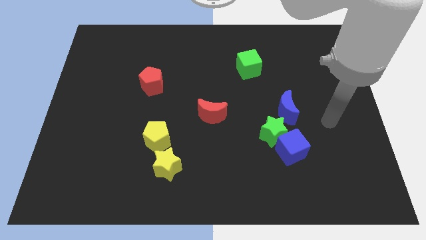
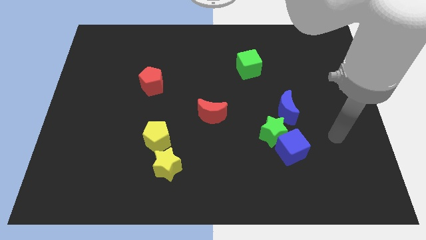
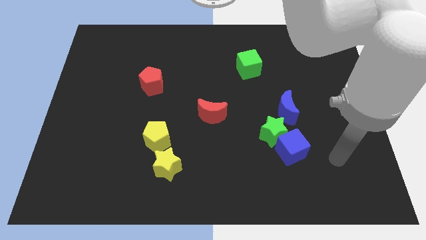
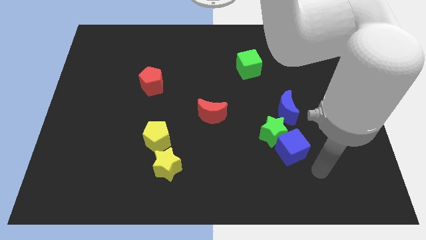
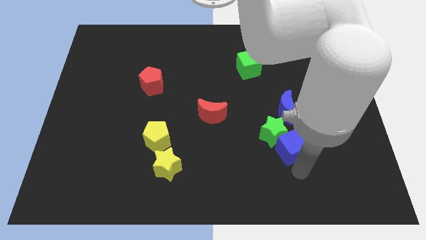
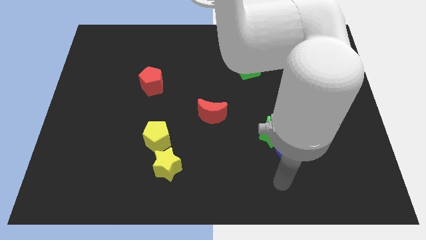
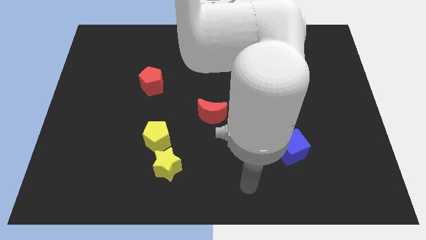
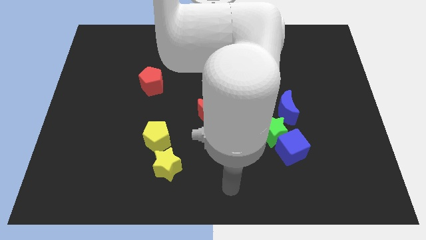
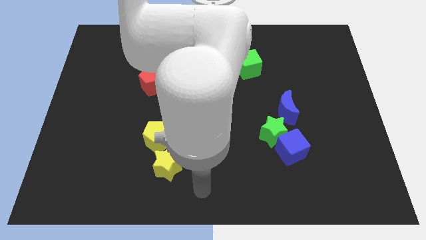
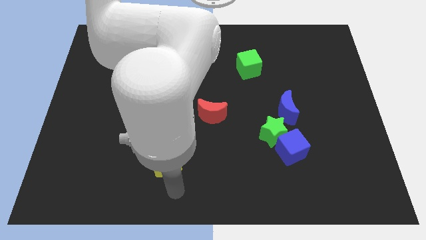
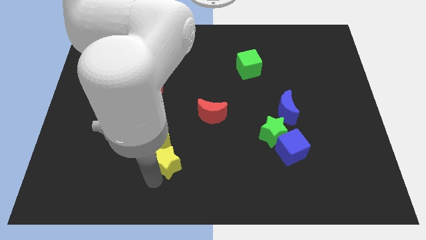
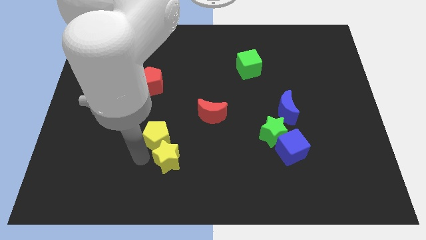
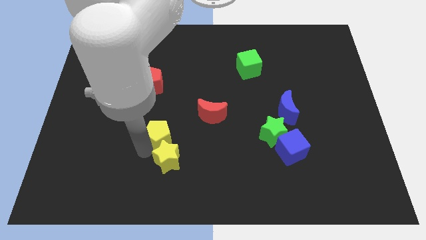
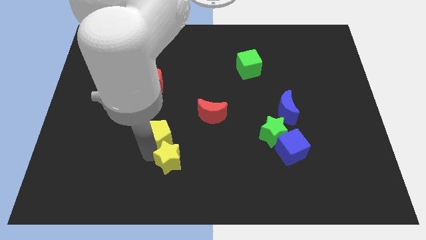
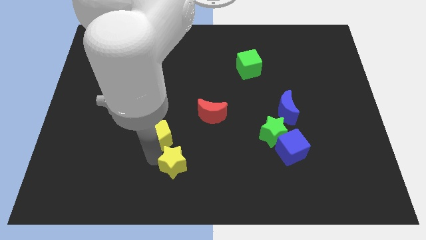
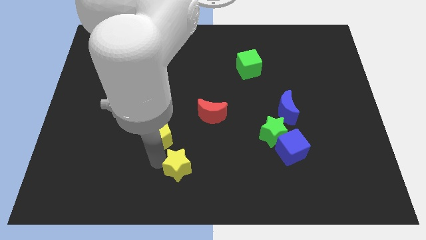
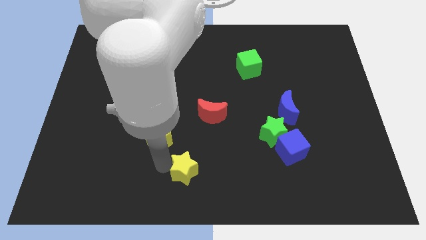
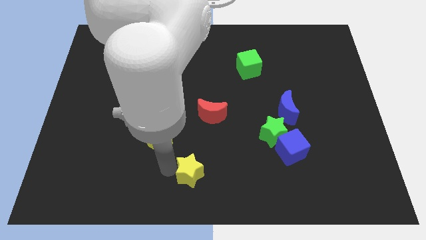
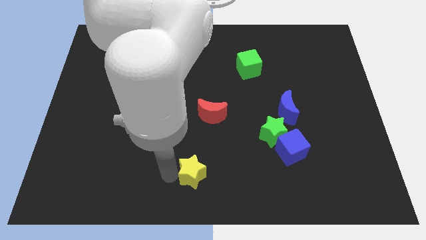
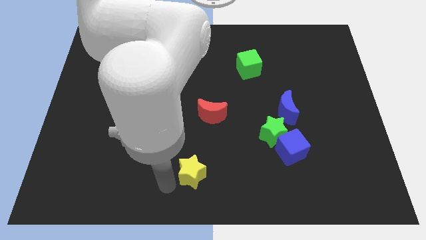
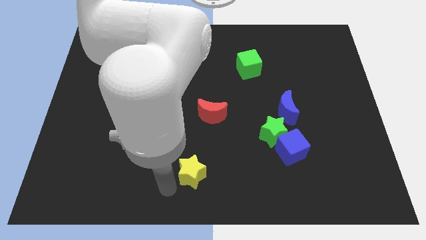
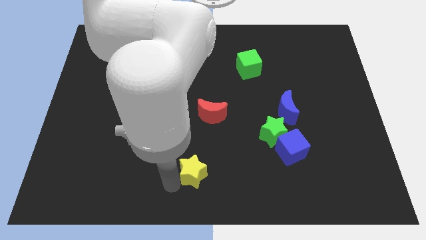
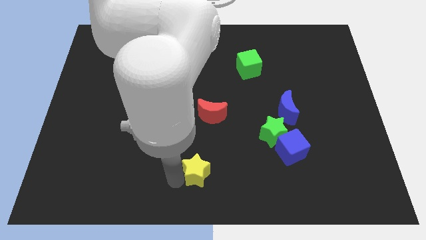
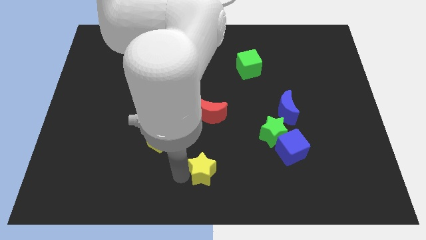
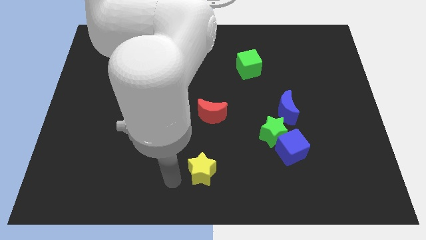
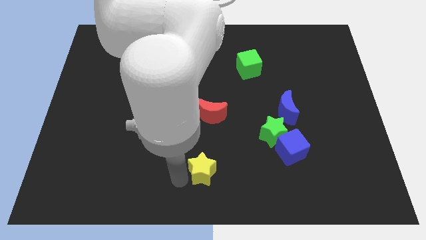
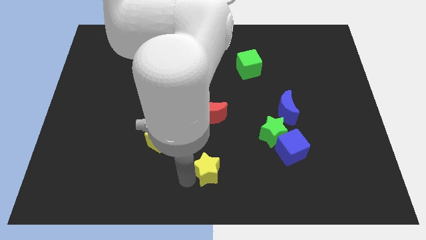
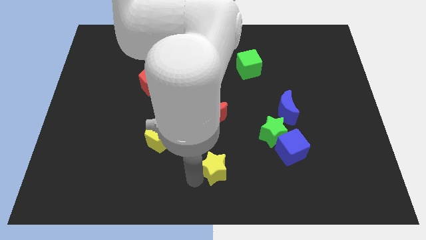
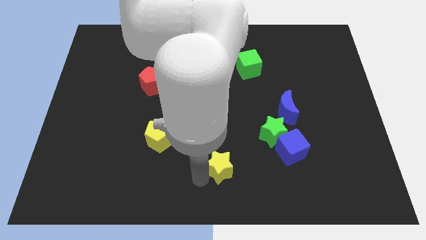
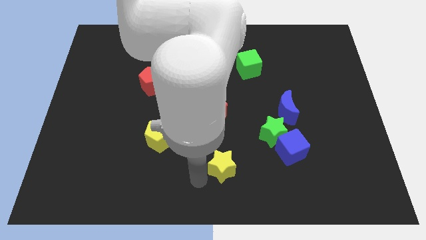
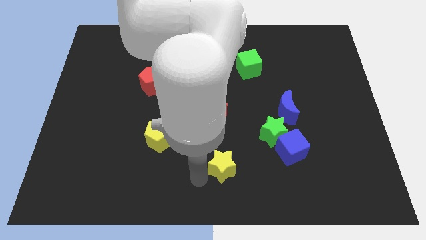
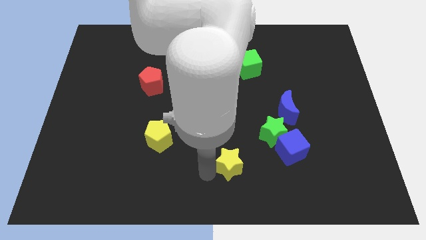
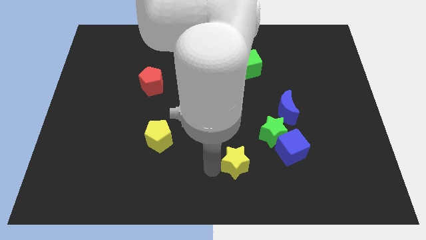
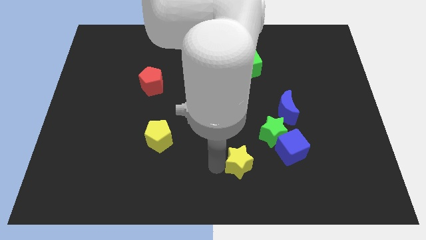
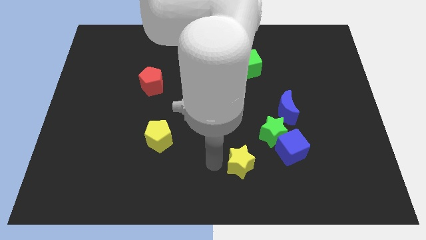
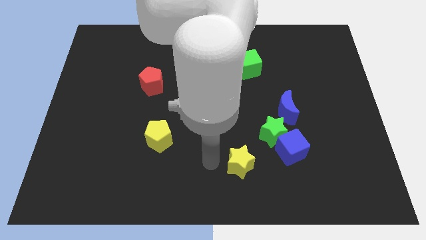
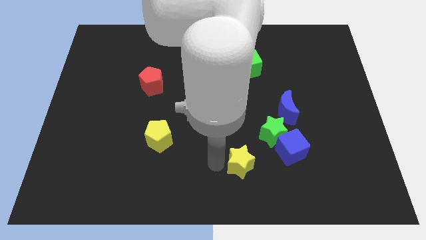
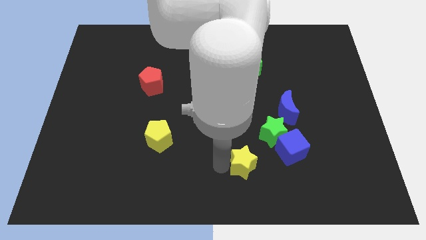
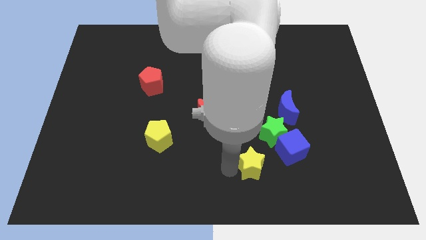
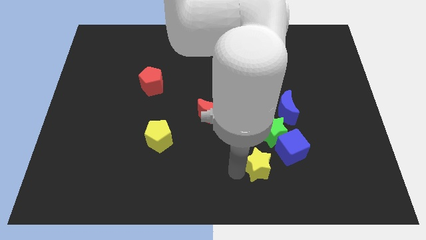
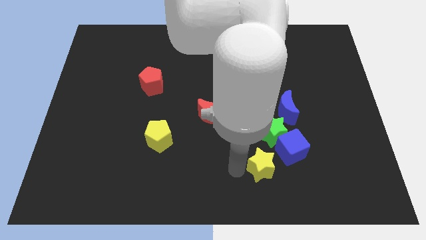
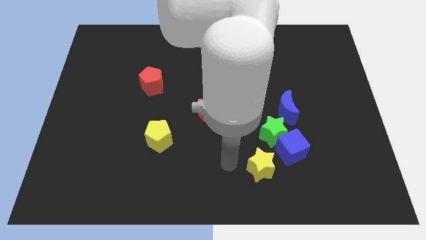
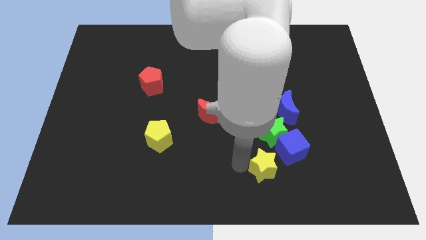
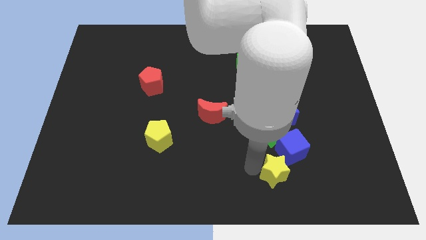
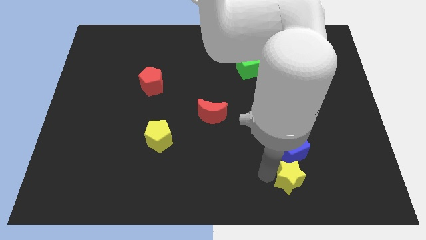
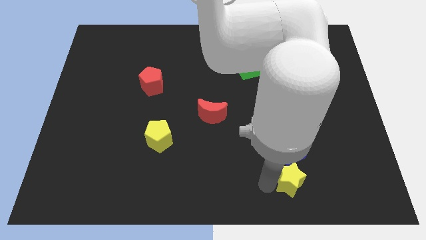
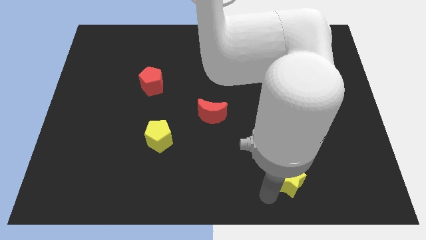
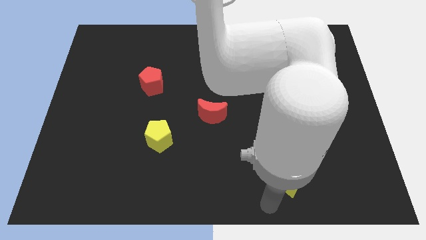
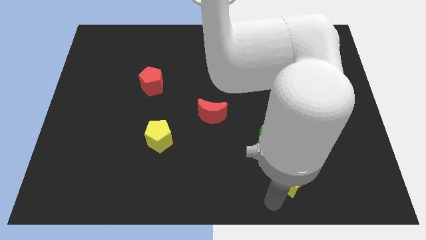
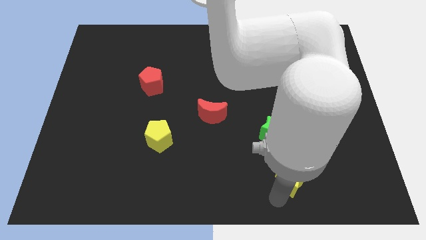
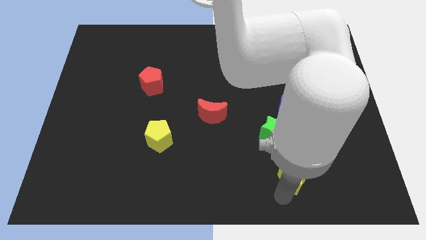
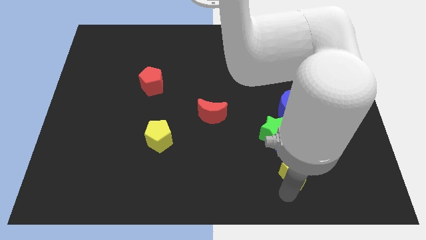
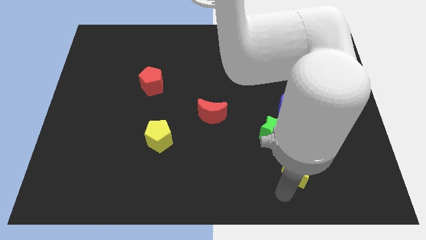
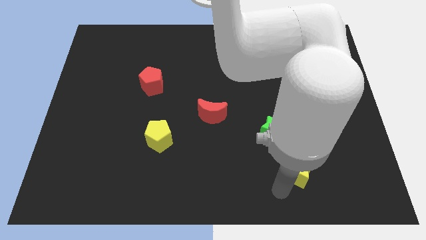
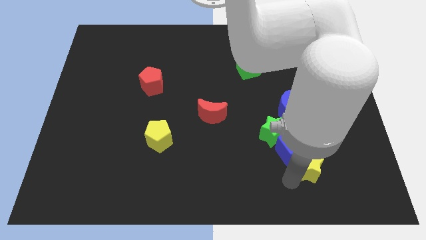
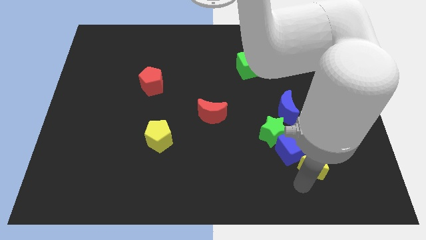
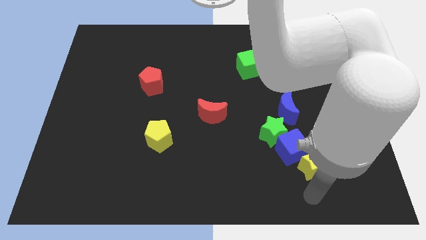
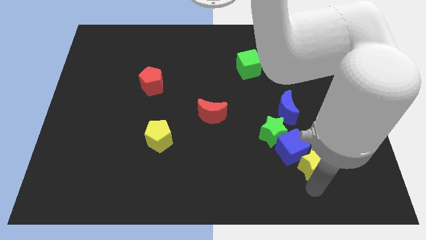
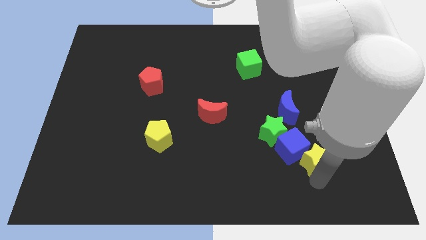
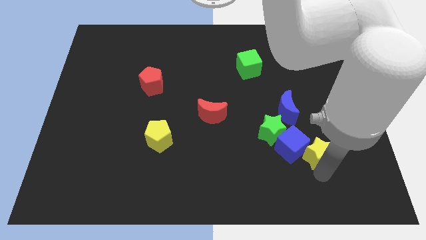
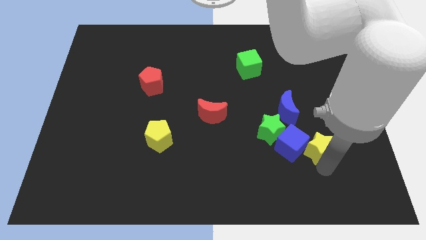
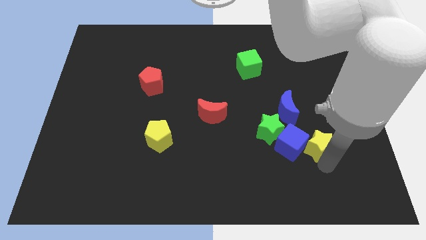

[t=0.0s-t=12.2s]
push the yellow star to the bottom right side of the blue moon

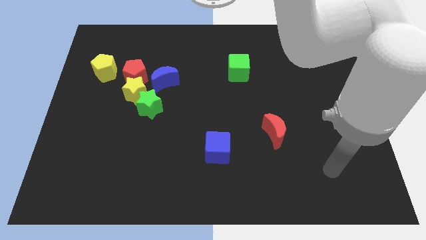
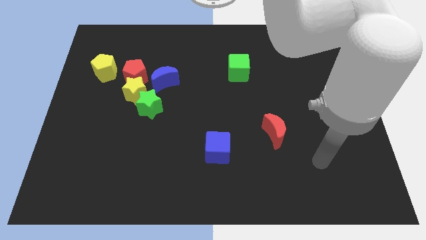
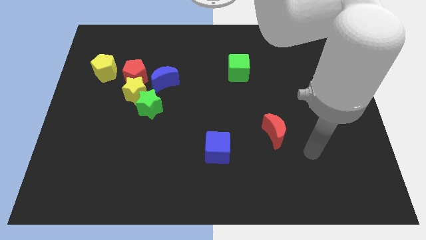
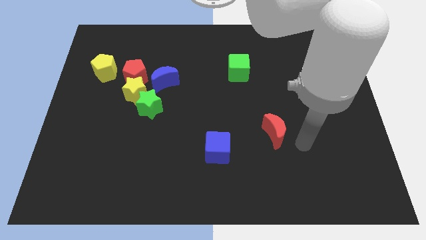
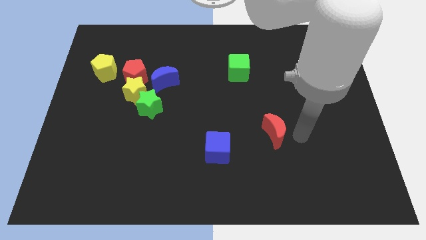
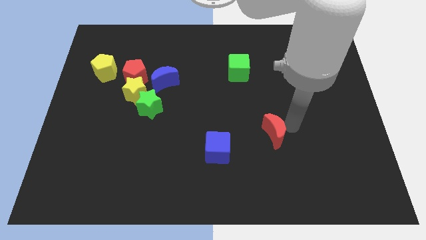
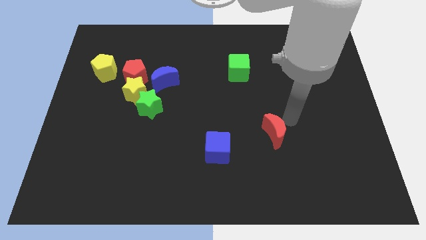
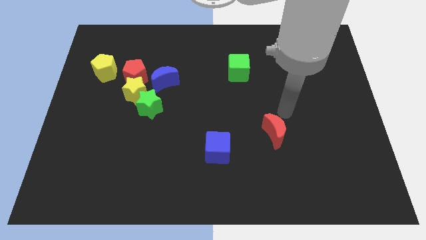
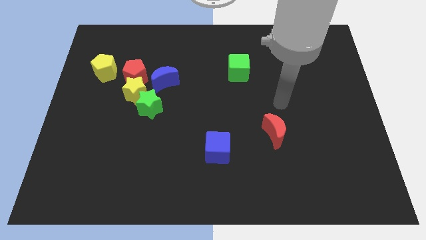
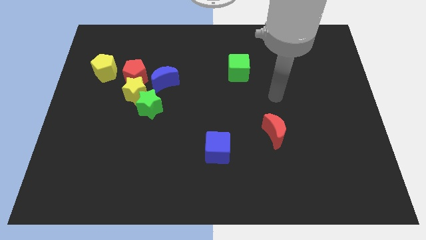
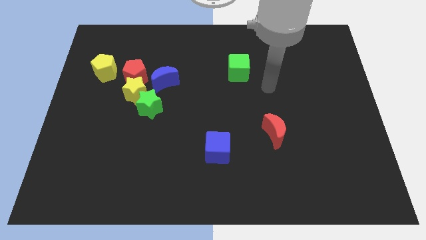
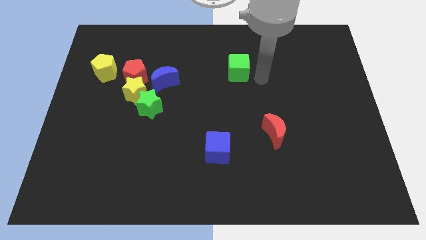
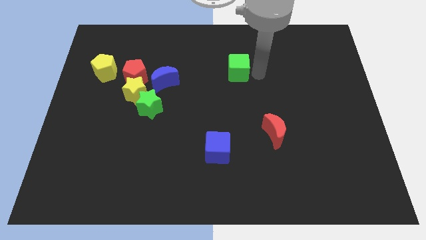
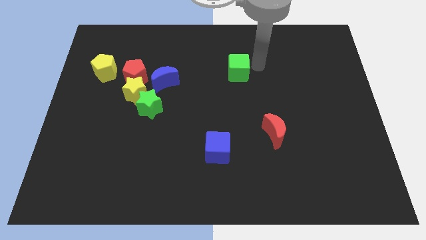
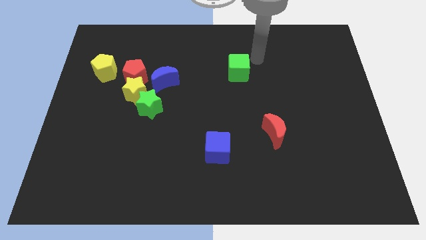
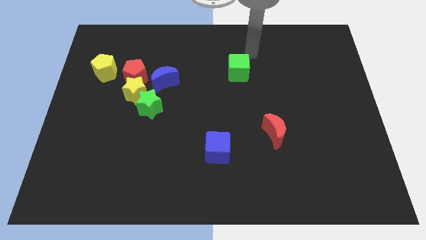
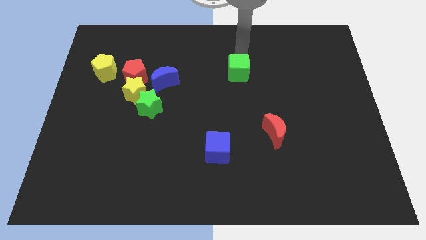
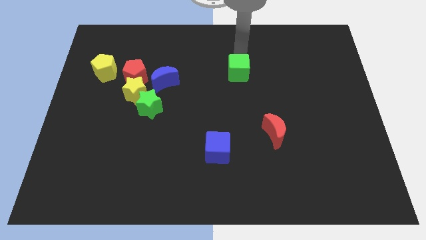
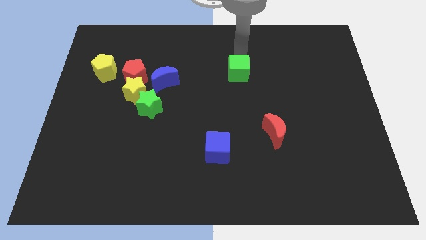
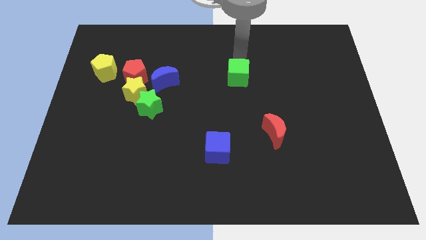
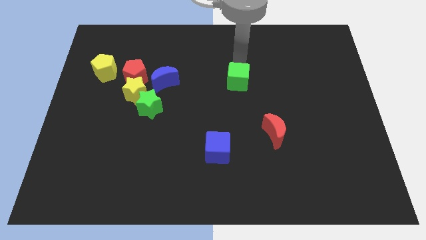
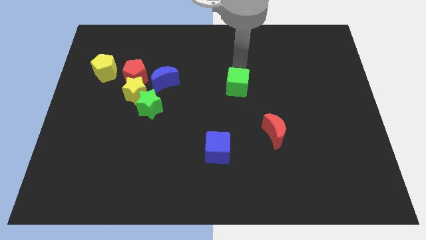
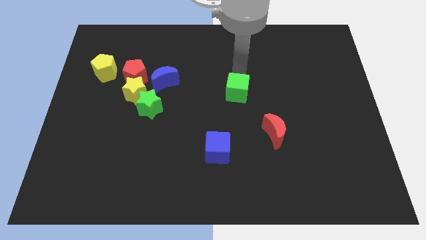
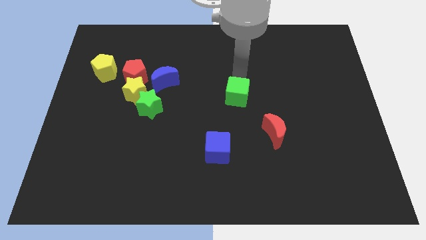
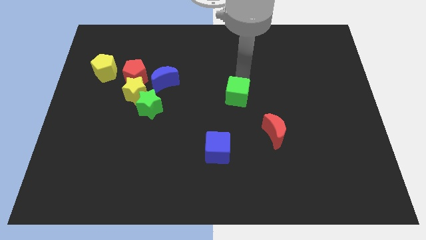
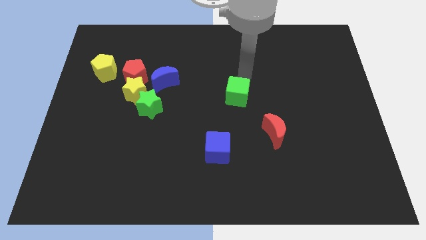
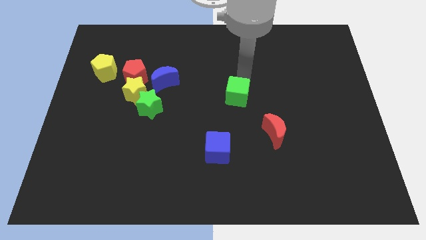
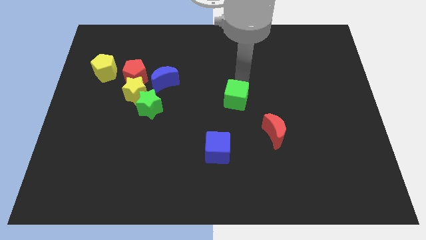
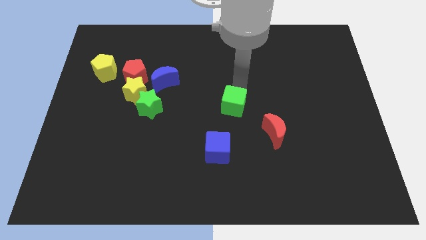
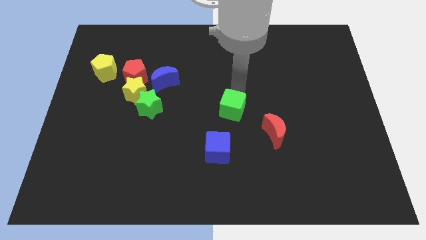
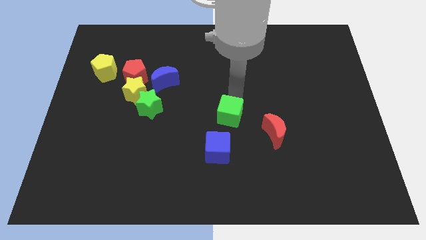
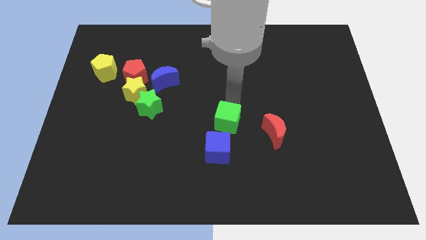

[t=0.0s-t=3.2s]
put the green cube left of the red moon
